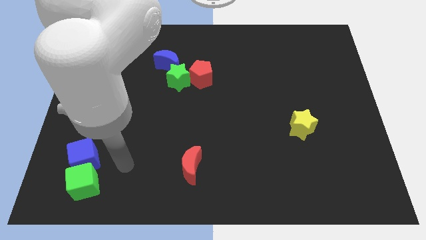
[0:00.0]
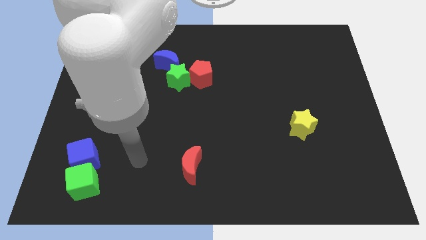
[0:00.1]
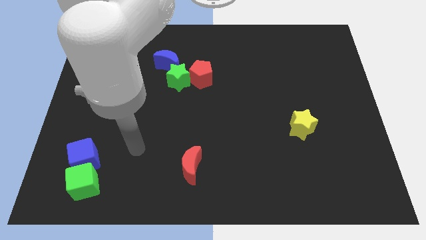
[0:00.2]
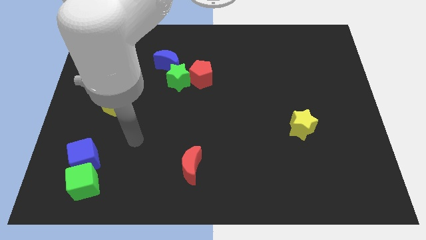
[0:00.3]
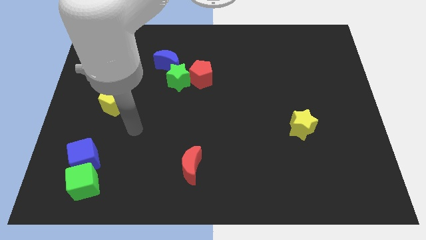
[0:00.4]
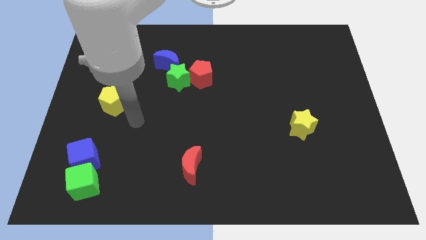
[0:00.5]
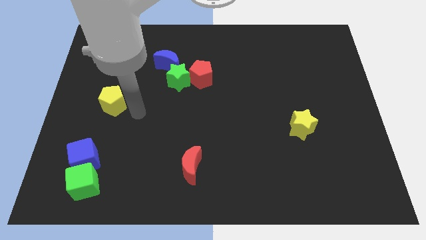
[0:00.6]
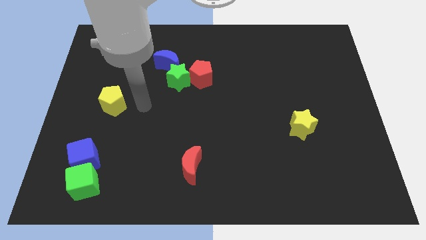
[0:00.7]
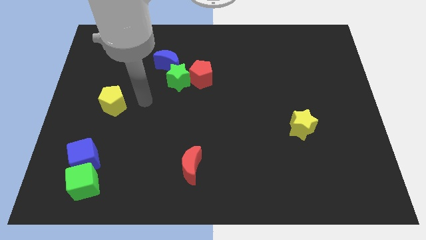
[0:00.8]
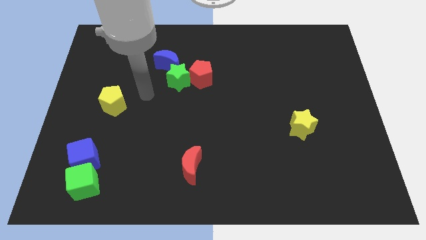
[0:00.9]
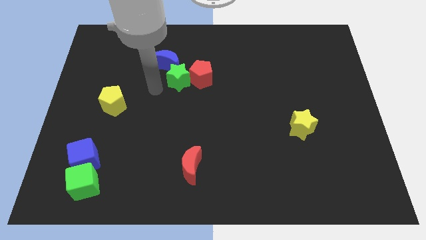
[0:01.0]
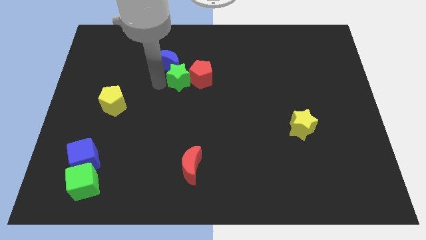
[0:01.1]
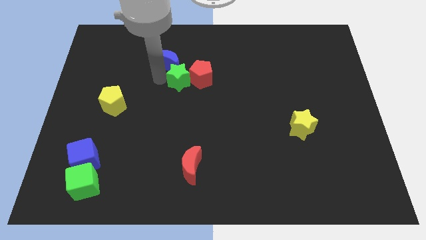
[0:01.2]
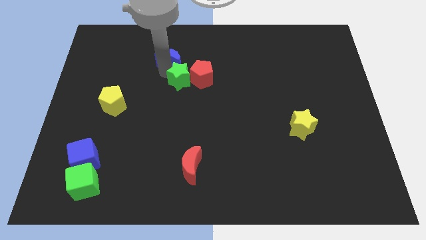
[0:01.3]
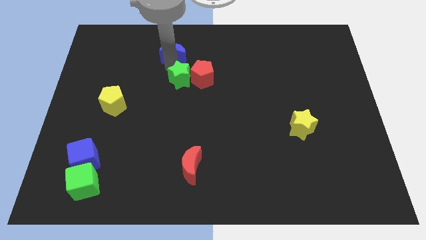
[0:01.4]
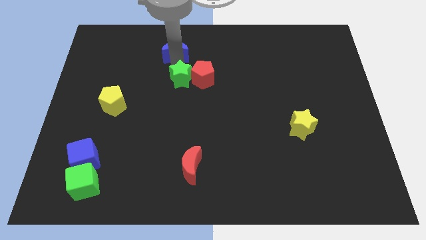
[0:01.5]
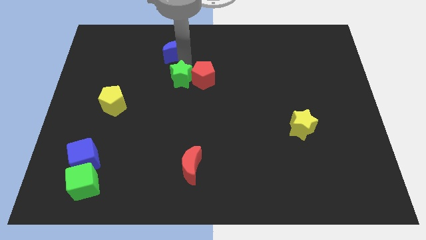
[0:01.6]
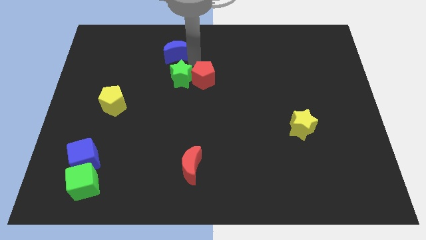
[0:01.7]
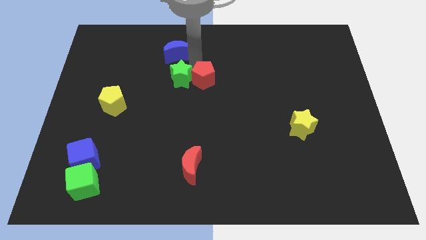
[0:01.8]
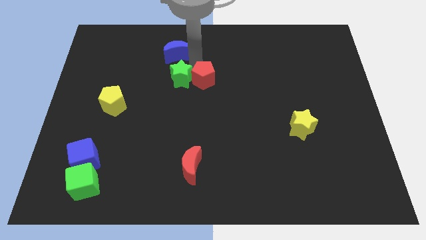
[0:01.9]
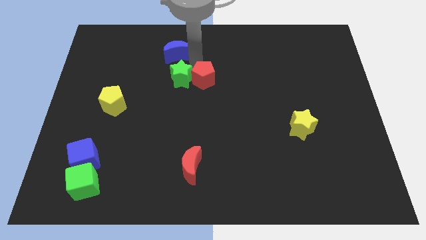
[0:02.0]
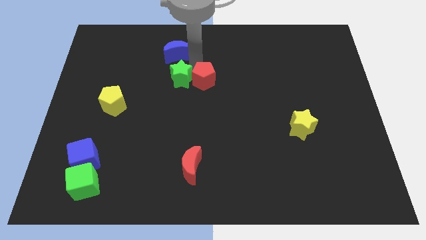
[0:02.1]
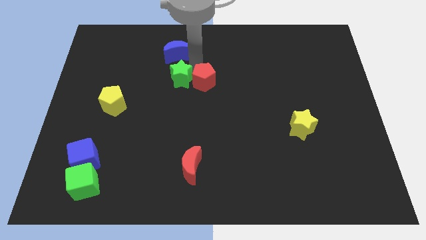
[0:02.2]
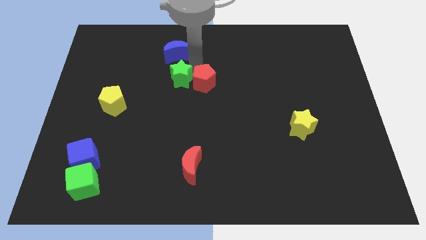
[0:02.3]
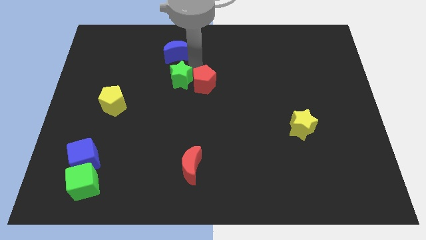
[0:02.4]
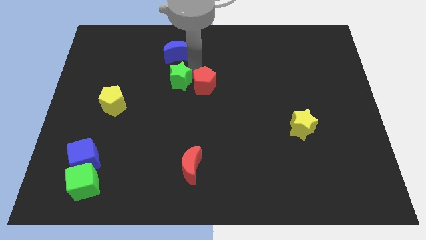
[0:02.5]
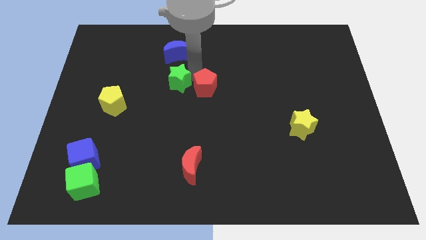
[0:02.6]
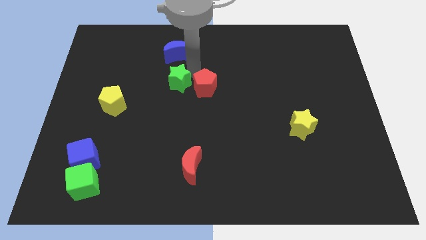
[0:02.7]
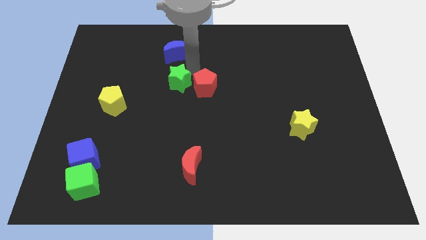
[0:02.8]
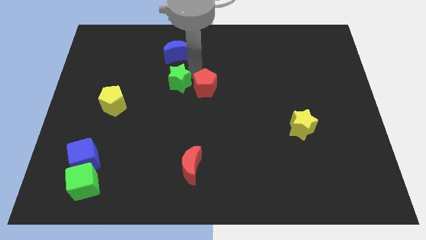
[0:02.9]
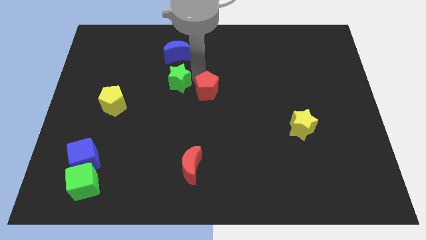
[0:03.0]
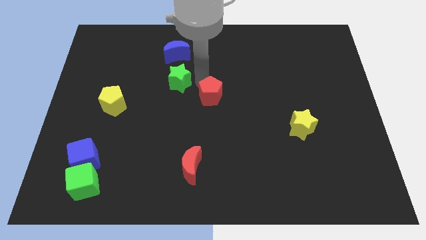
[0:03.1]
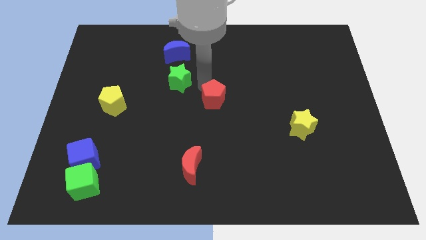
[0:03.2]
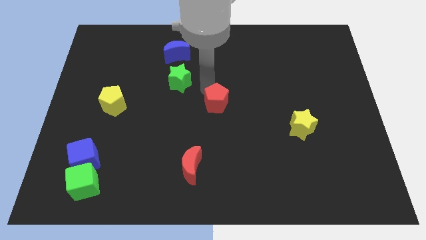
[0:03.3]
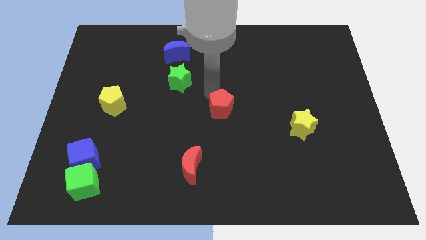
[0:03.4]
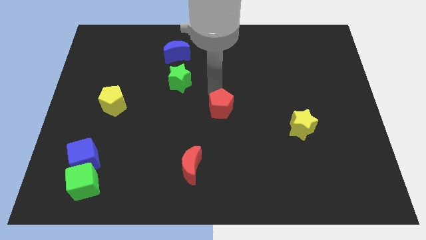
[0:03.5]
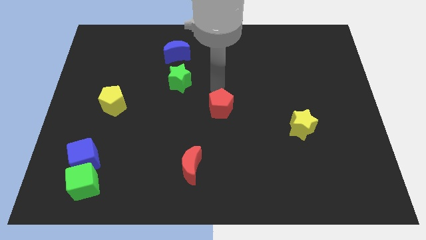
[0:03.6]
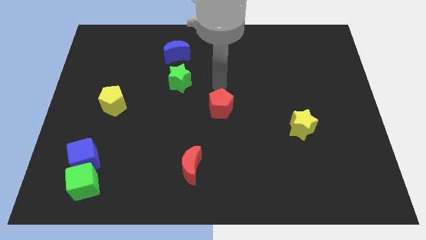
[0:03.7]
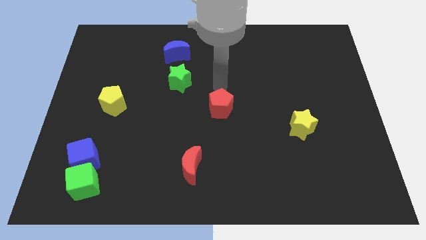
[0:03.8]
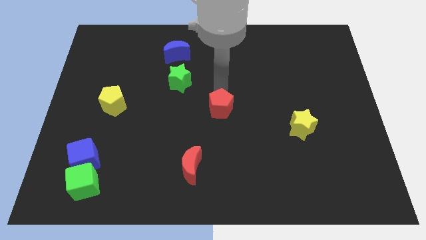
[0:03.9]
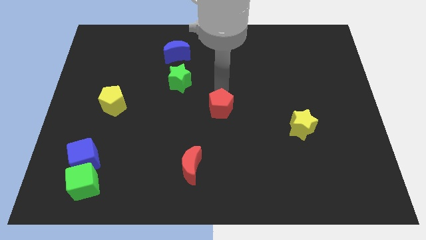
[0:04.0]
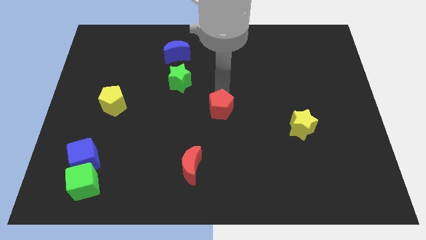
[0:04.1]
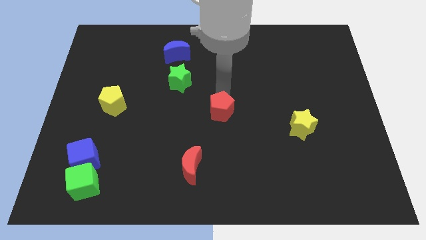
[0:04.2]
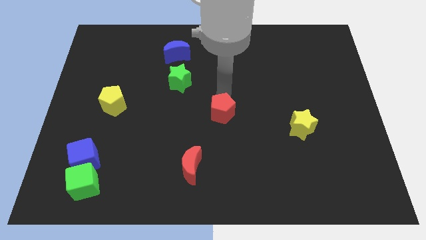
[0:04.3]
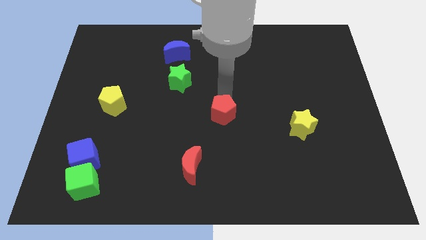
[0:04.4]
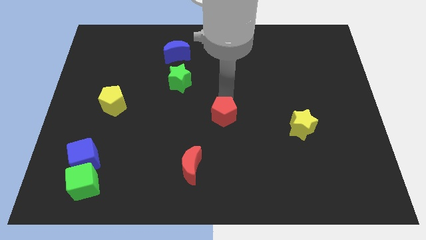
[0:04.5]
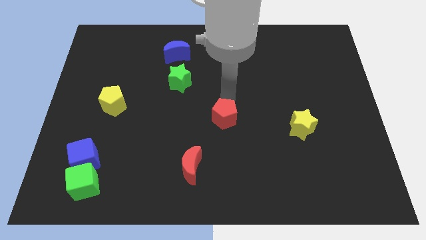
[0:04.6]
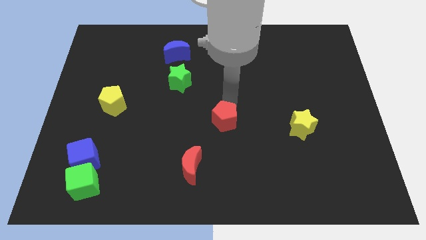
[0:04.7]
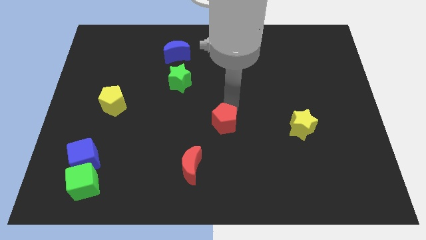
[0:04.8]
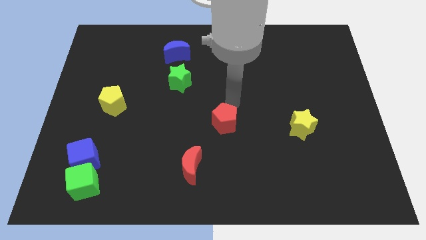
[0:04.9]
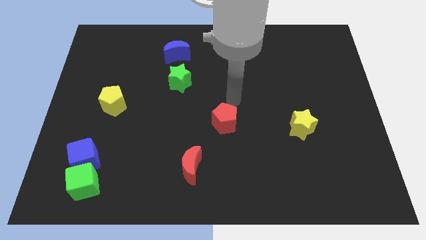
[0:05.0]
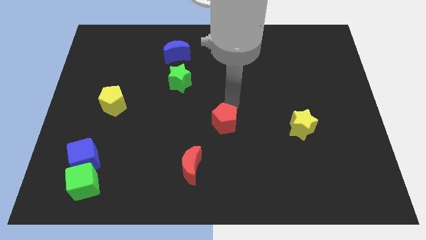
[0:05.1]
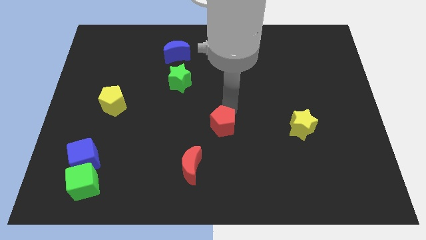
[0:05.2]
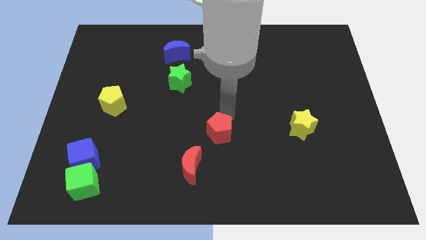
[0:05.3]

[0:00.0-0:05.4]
push the red pentagon diagonally up and to the right of the red moon

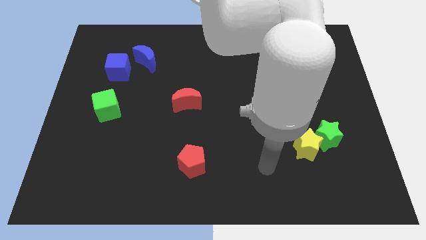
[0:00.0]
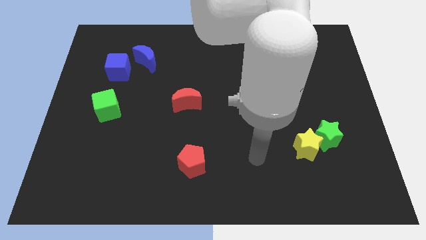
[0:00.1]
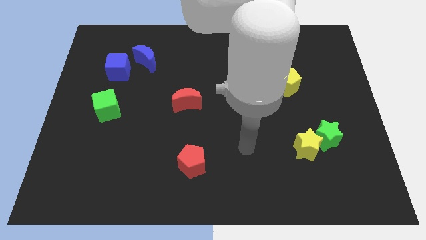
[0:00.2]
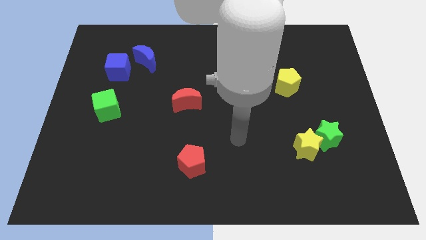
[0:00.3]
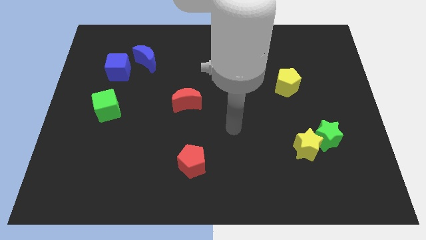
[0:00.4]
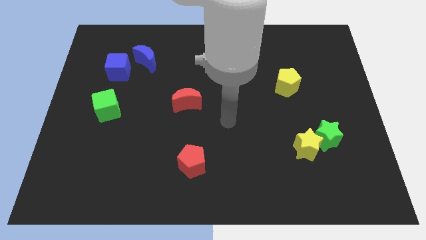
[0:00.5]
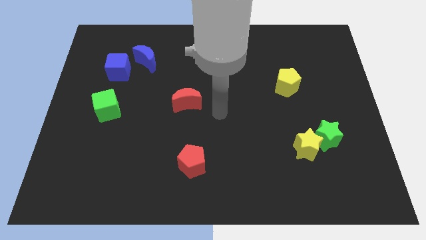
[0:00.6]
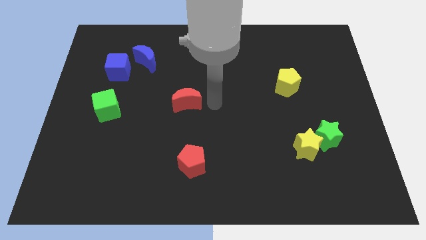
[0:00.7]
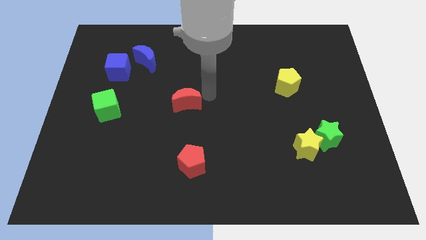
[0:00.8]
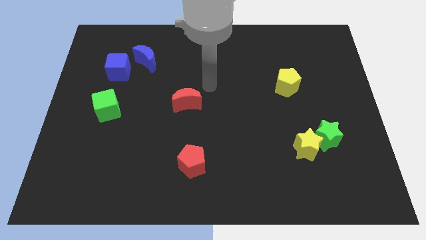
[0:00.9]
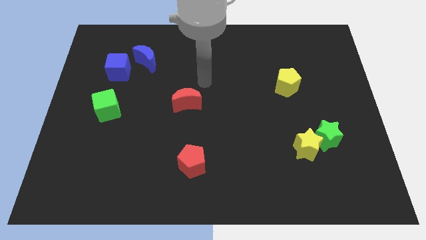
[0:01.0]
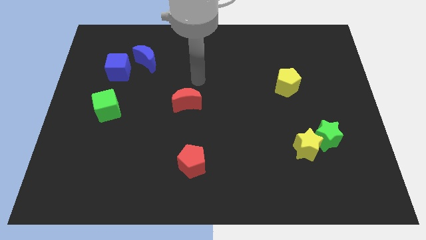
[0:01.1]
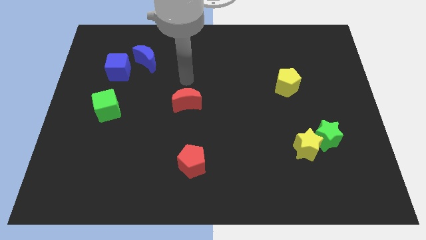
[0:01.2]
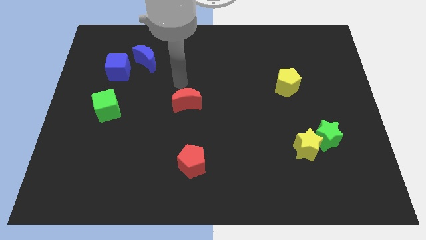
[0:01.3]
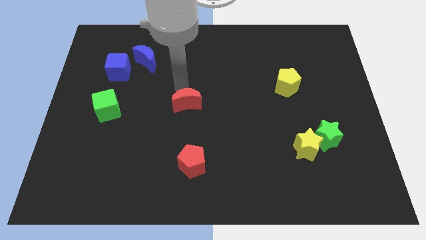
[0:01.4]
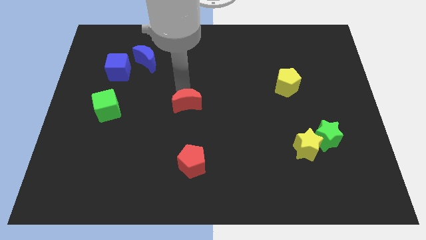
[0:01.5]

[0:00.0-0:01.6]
slide the red moon to the top of the red pentagon

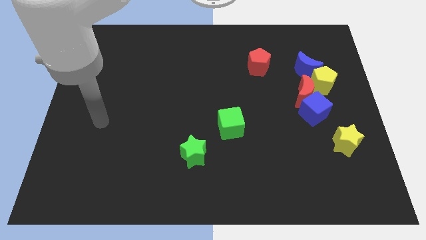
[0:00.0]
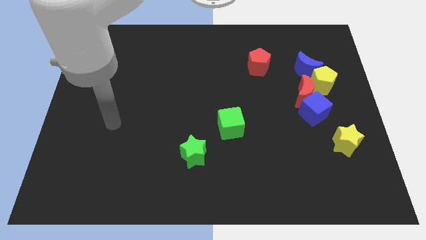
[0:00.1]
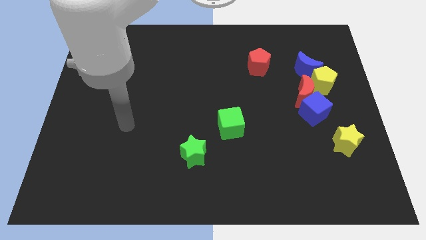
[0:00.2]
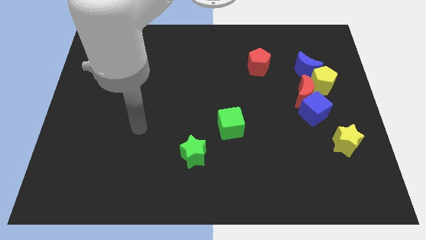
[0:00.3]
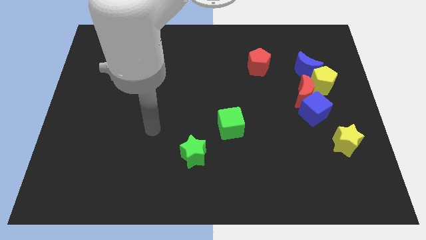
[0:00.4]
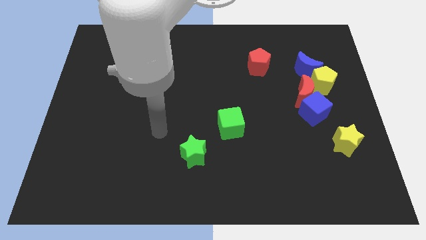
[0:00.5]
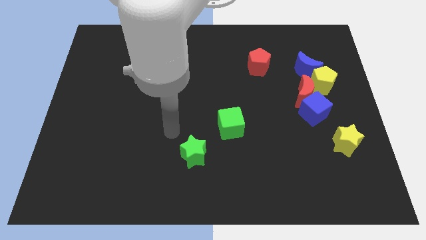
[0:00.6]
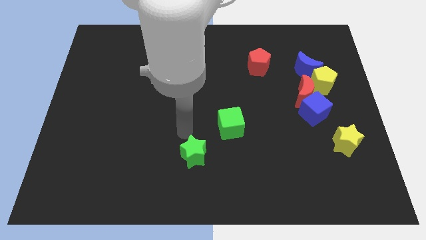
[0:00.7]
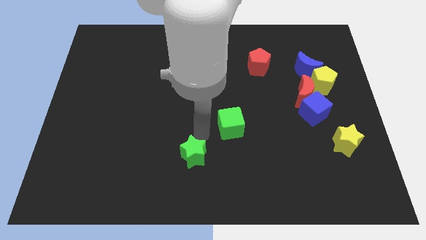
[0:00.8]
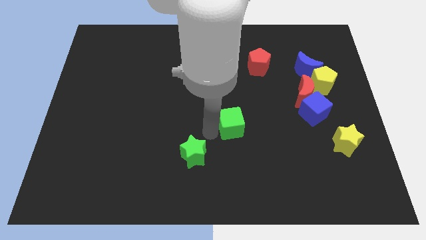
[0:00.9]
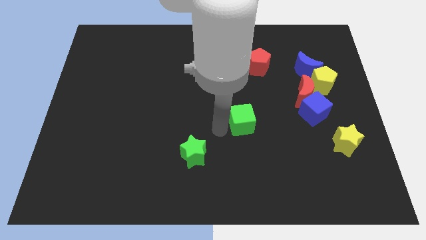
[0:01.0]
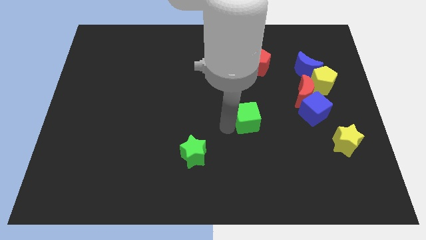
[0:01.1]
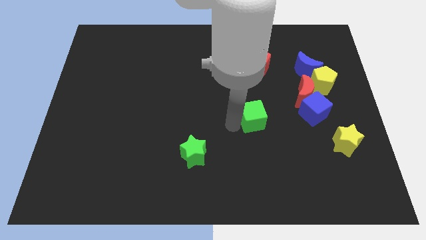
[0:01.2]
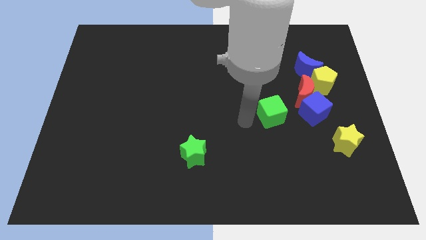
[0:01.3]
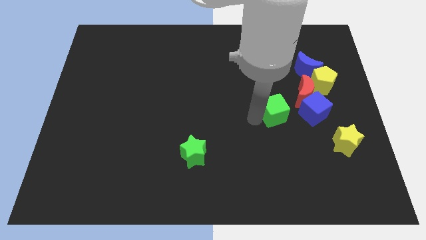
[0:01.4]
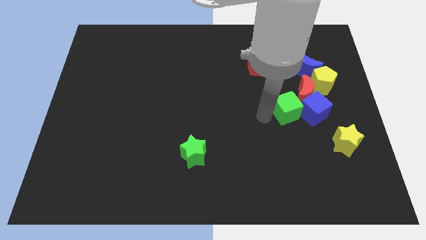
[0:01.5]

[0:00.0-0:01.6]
slide the green cube diagonally down and to the left of the yellow pentagon
